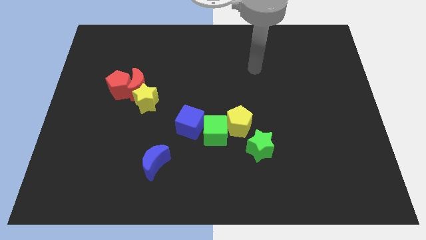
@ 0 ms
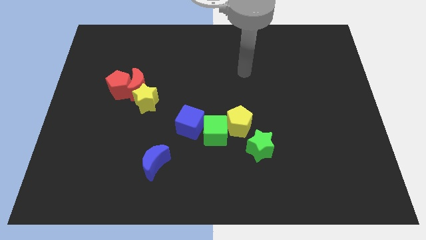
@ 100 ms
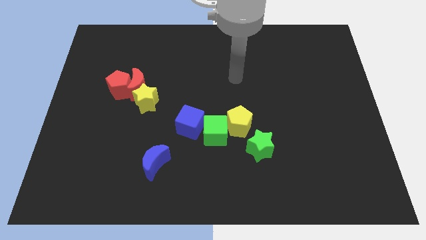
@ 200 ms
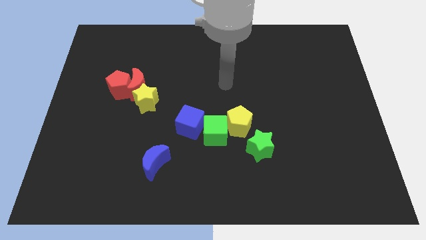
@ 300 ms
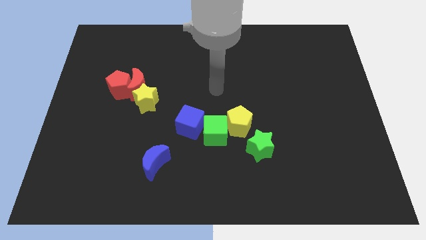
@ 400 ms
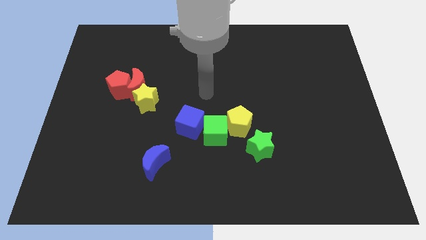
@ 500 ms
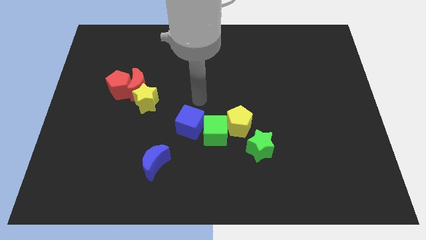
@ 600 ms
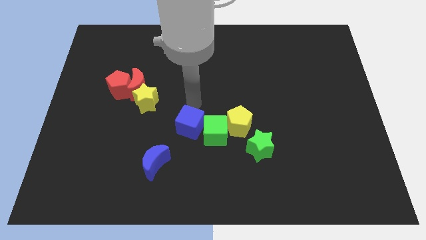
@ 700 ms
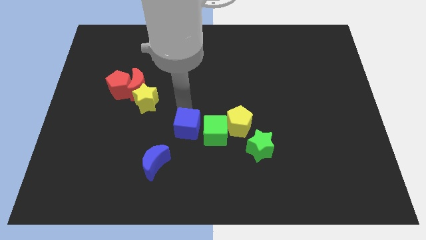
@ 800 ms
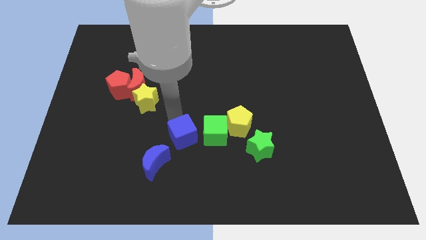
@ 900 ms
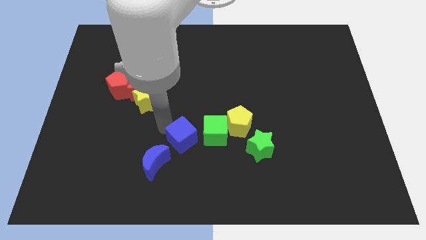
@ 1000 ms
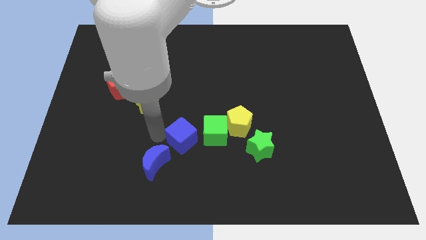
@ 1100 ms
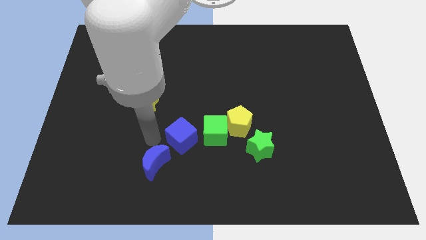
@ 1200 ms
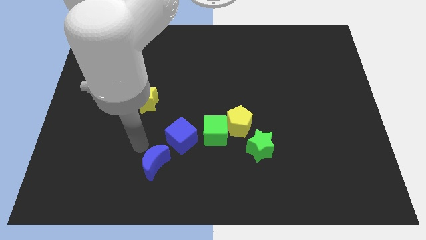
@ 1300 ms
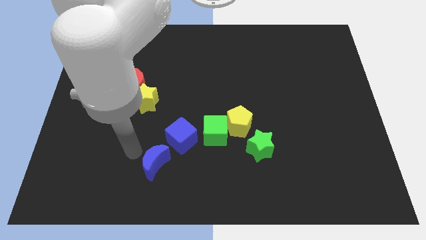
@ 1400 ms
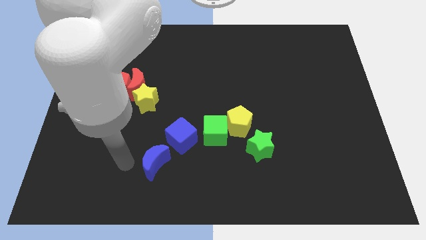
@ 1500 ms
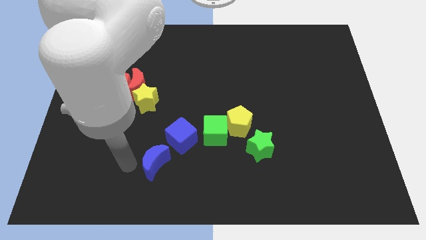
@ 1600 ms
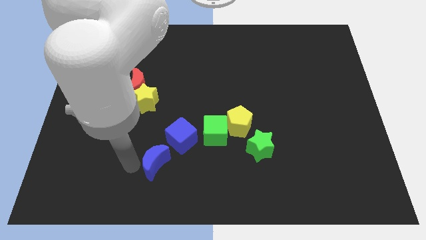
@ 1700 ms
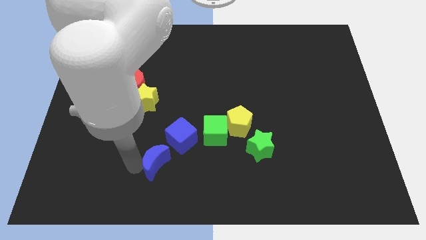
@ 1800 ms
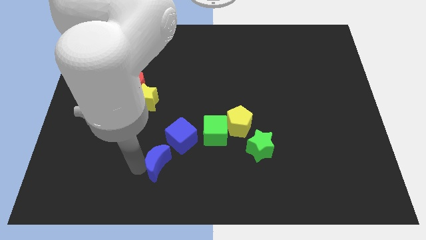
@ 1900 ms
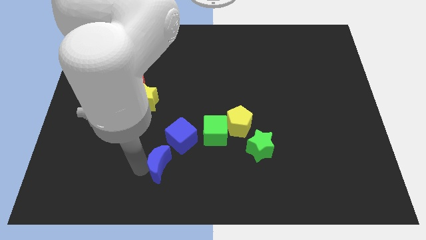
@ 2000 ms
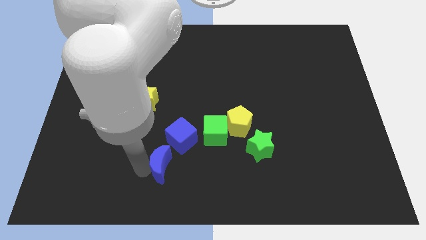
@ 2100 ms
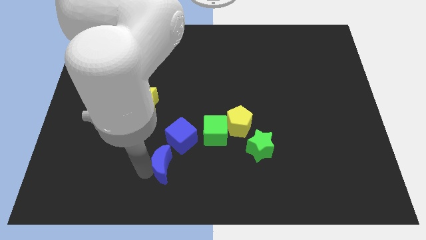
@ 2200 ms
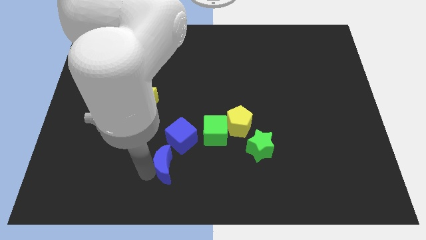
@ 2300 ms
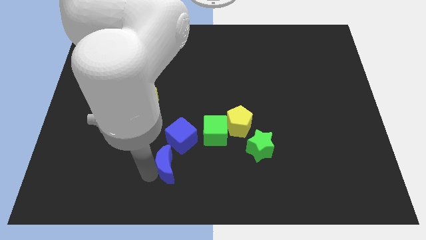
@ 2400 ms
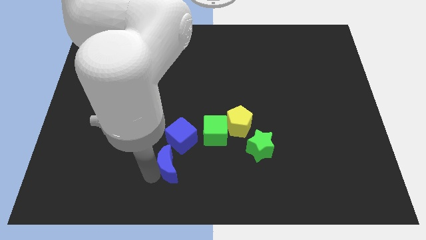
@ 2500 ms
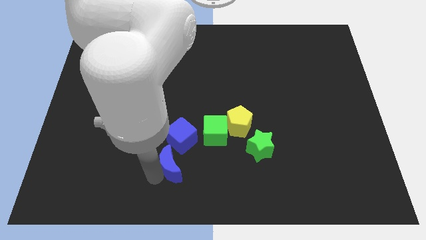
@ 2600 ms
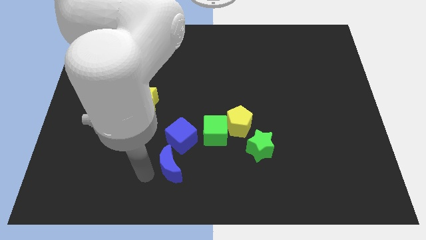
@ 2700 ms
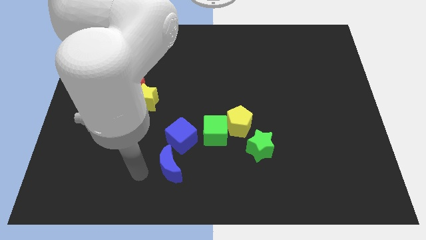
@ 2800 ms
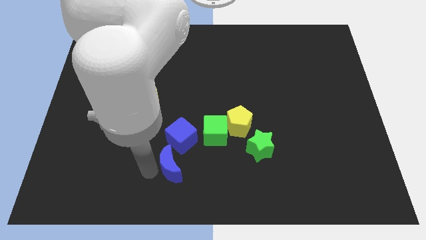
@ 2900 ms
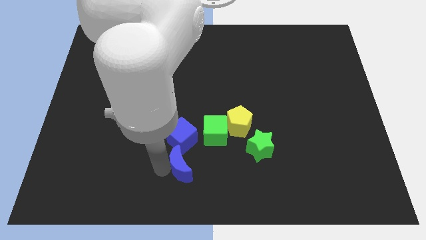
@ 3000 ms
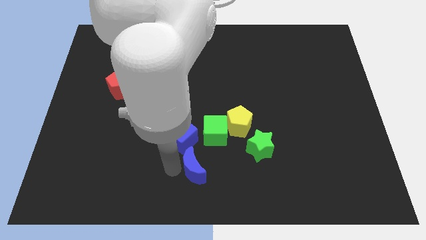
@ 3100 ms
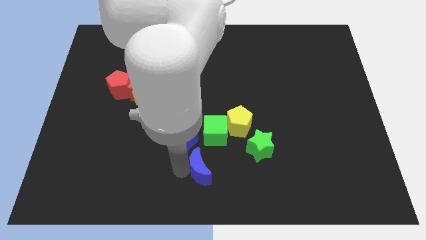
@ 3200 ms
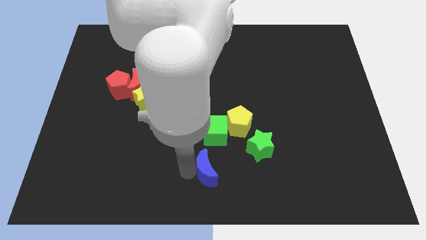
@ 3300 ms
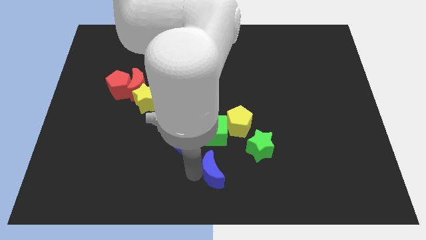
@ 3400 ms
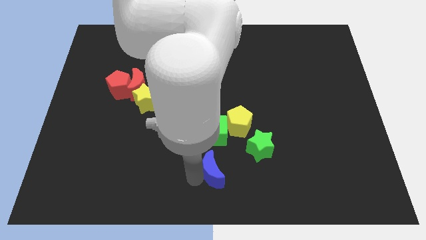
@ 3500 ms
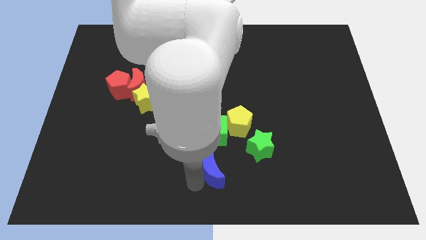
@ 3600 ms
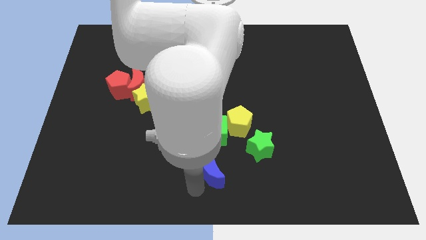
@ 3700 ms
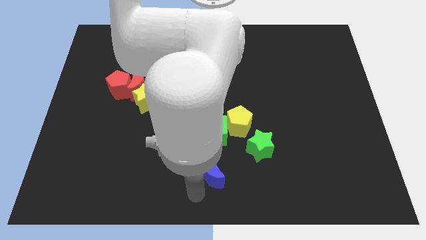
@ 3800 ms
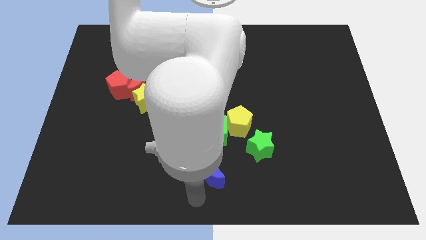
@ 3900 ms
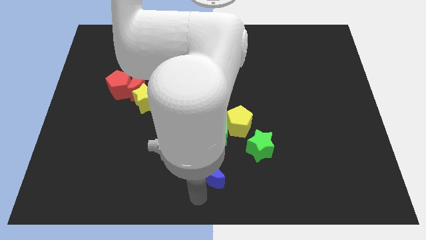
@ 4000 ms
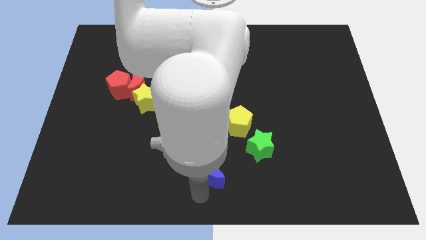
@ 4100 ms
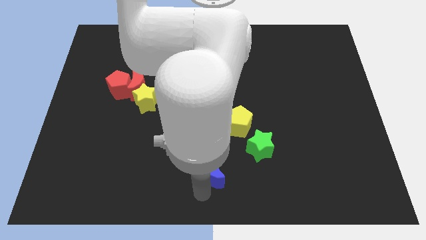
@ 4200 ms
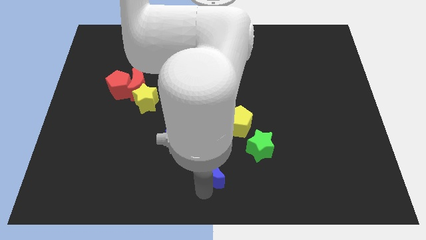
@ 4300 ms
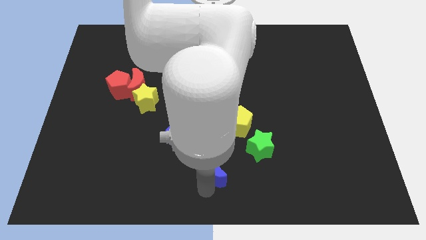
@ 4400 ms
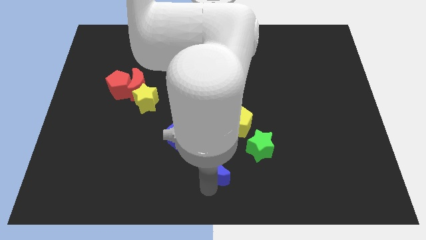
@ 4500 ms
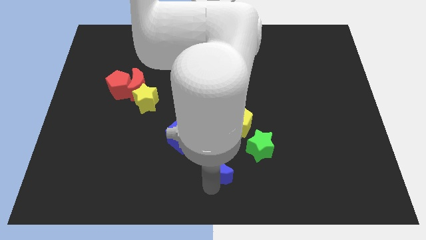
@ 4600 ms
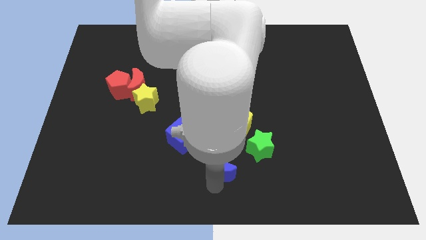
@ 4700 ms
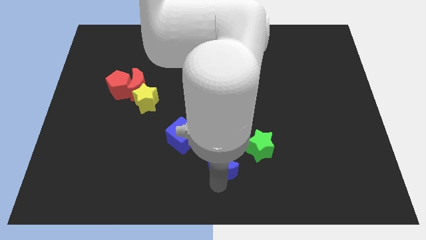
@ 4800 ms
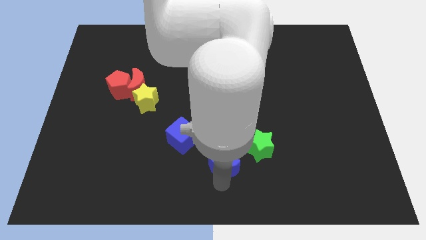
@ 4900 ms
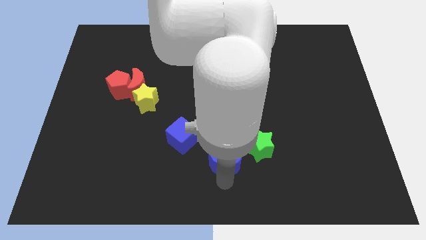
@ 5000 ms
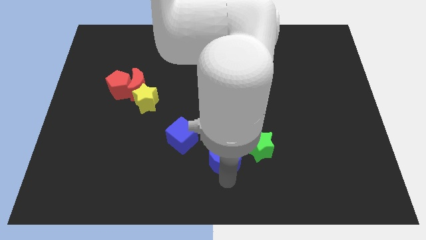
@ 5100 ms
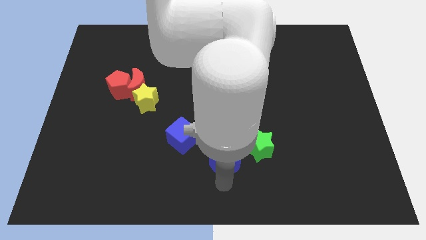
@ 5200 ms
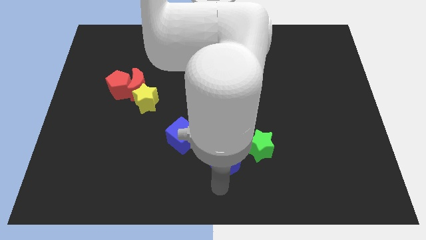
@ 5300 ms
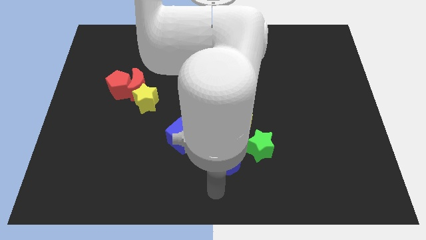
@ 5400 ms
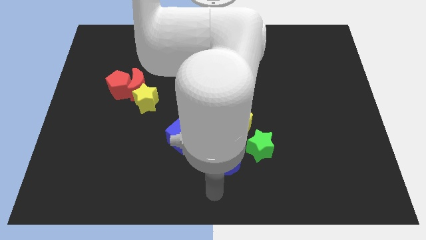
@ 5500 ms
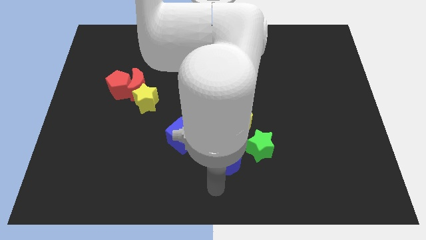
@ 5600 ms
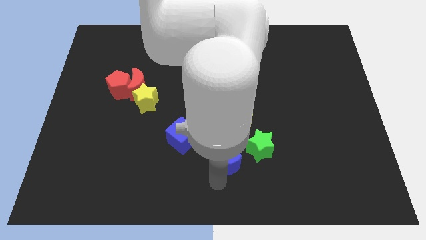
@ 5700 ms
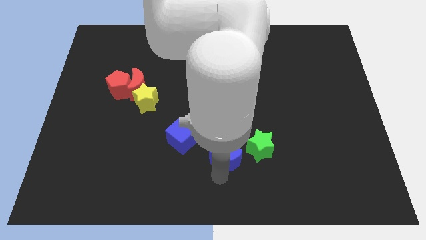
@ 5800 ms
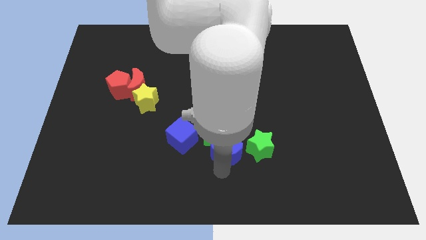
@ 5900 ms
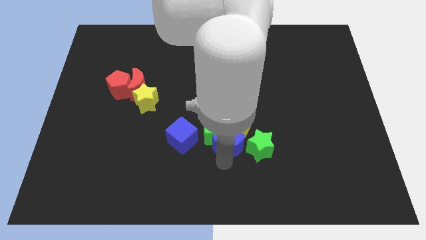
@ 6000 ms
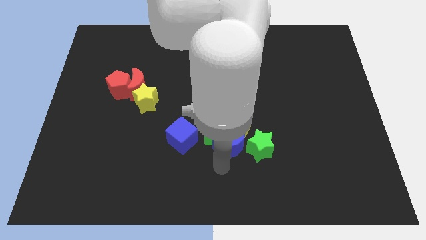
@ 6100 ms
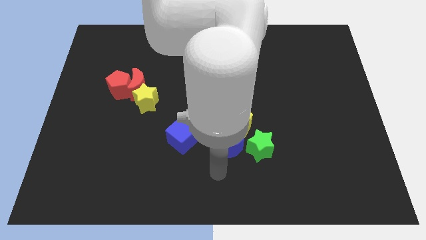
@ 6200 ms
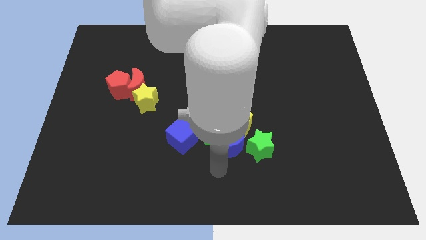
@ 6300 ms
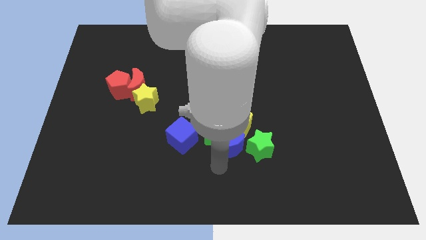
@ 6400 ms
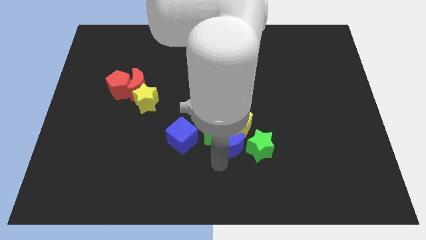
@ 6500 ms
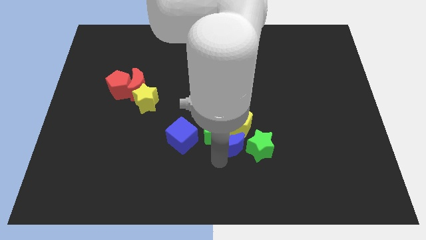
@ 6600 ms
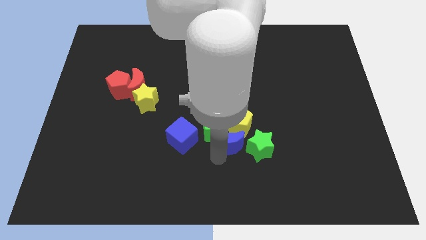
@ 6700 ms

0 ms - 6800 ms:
move the blue moon to the yellow pentagon
